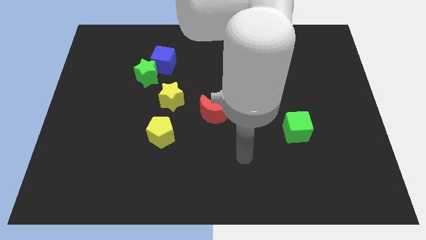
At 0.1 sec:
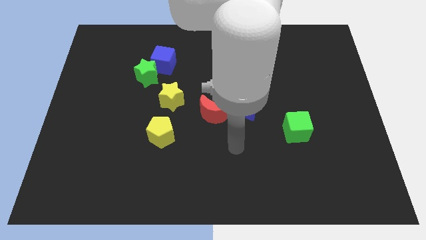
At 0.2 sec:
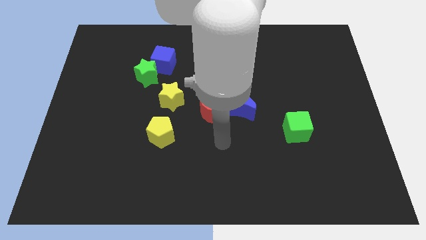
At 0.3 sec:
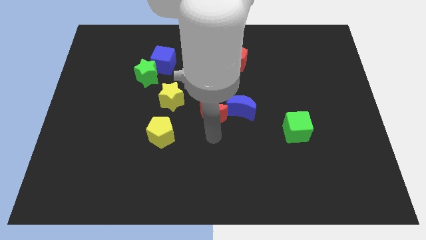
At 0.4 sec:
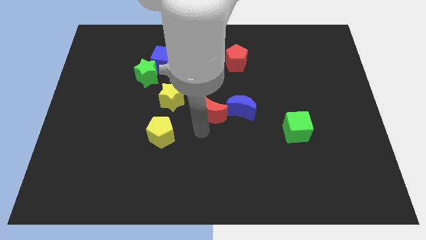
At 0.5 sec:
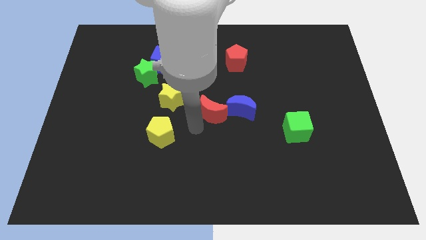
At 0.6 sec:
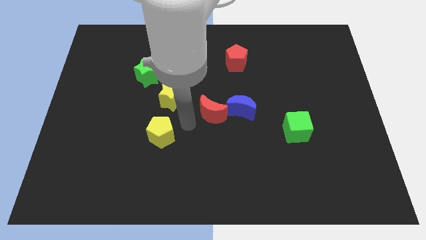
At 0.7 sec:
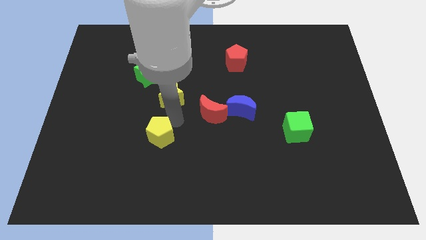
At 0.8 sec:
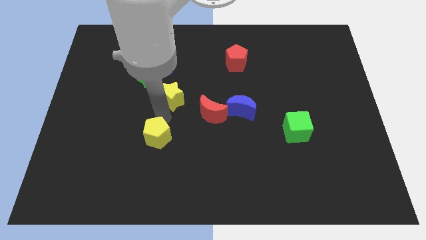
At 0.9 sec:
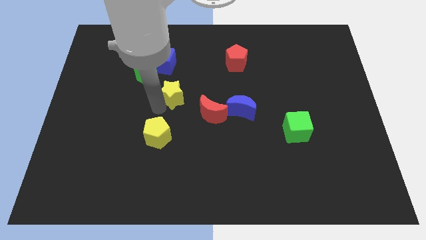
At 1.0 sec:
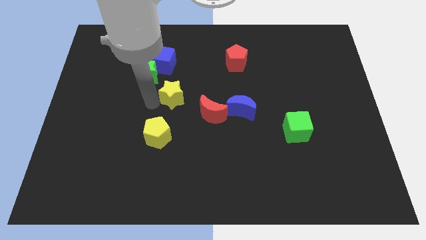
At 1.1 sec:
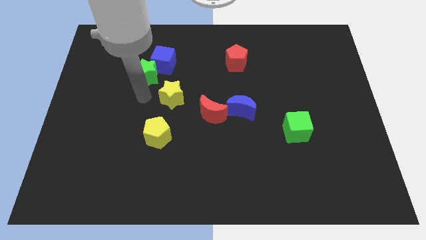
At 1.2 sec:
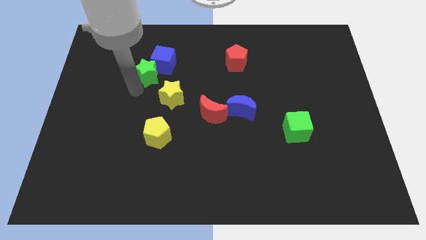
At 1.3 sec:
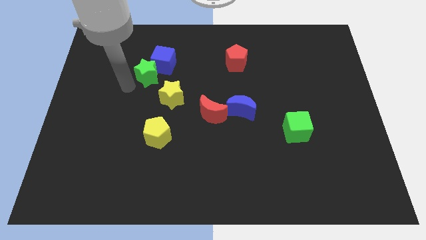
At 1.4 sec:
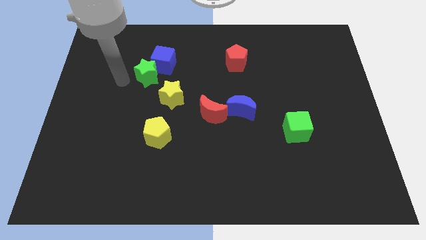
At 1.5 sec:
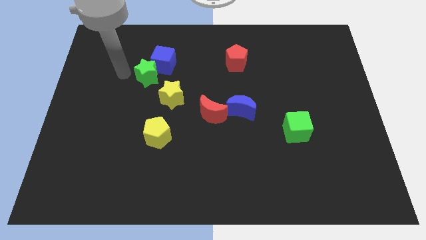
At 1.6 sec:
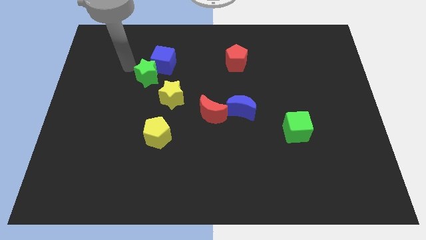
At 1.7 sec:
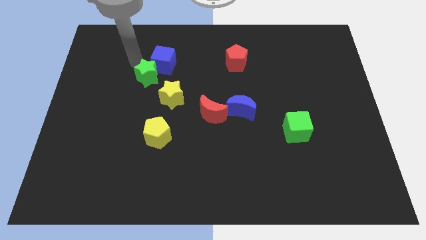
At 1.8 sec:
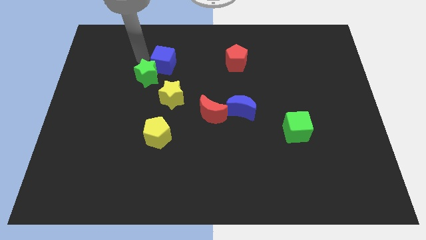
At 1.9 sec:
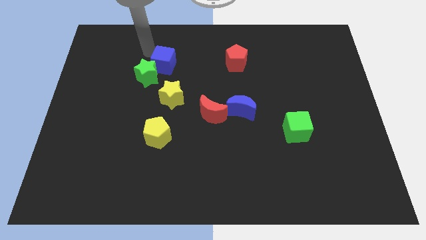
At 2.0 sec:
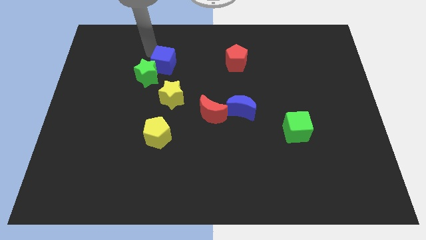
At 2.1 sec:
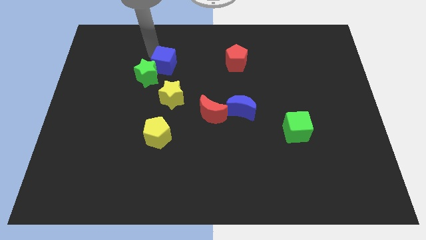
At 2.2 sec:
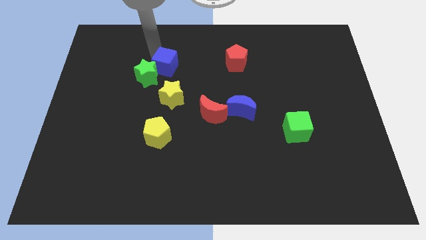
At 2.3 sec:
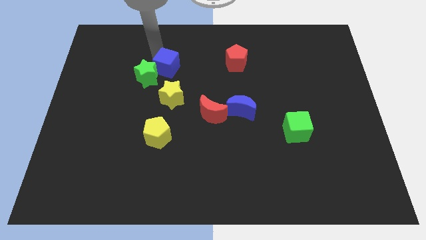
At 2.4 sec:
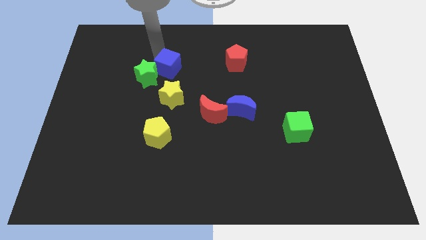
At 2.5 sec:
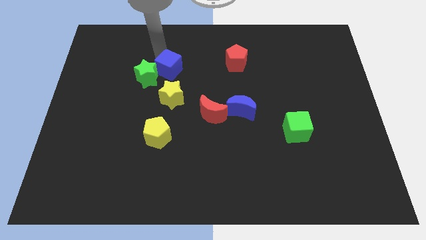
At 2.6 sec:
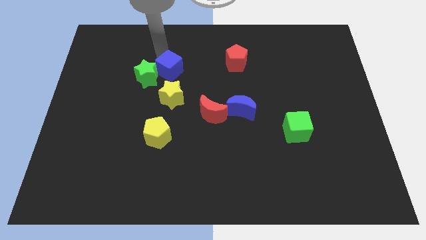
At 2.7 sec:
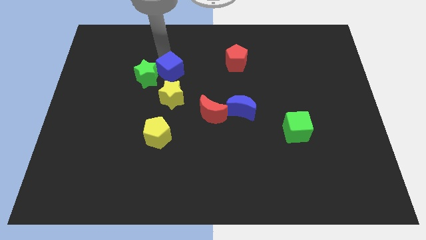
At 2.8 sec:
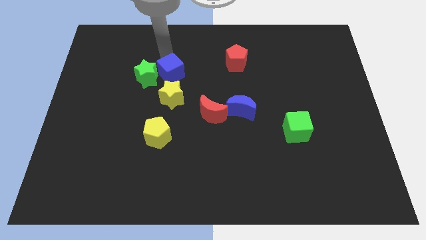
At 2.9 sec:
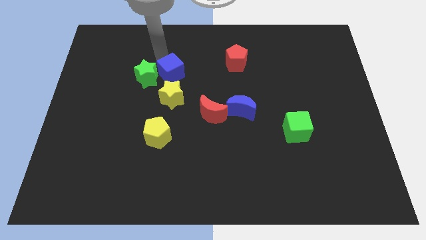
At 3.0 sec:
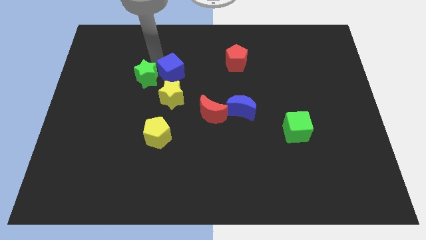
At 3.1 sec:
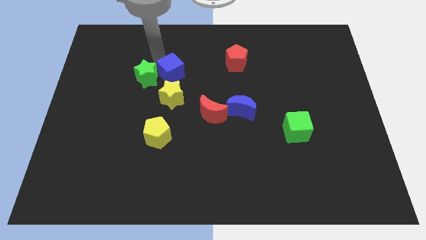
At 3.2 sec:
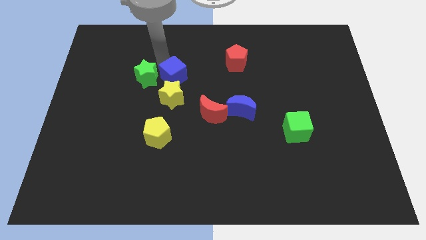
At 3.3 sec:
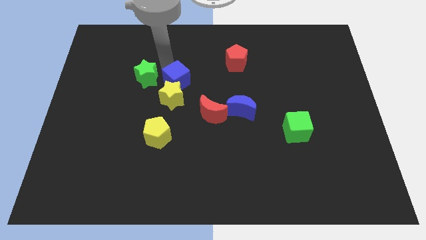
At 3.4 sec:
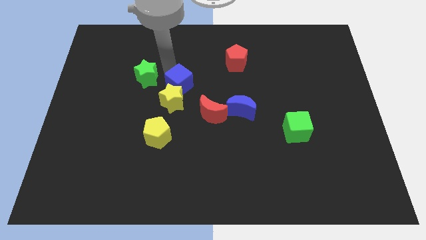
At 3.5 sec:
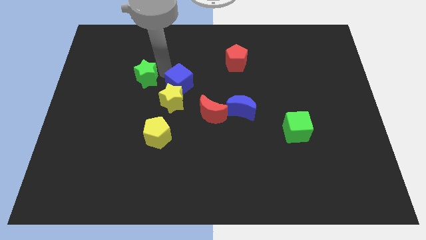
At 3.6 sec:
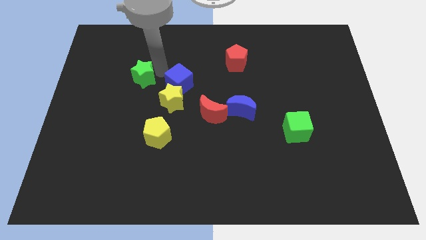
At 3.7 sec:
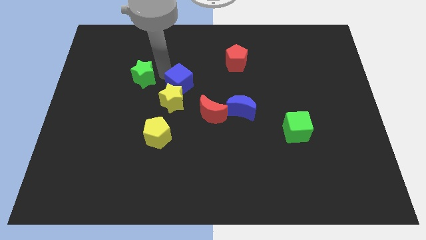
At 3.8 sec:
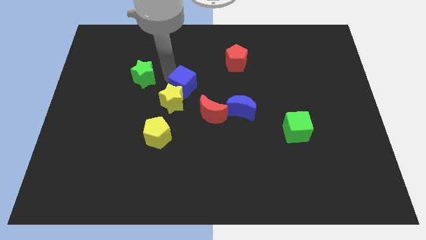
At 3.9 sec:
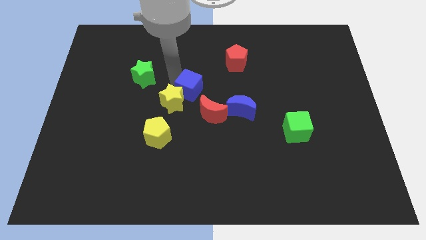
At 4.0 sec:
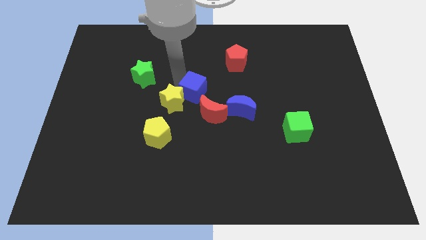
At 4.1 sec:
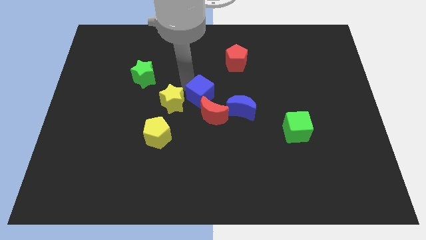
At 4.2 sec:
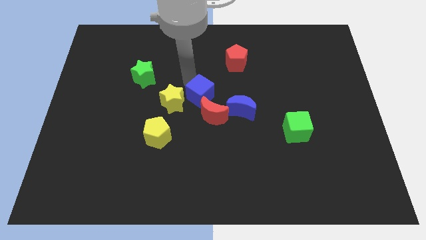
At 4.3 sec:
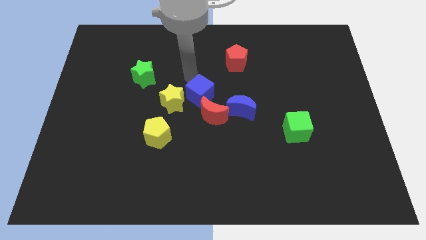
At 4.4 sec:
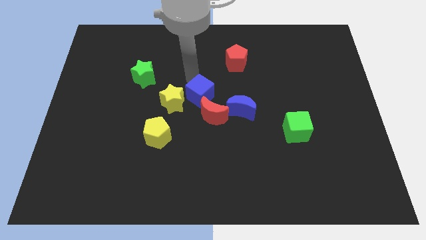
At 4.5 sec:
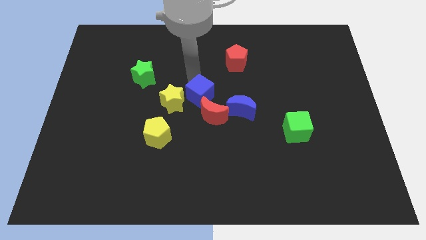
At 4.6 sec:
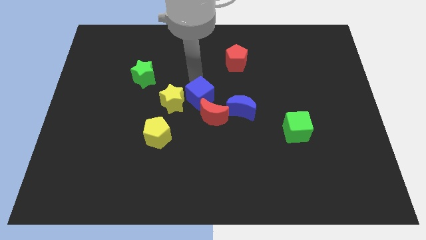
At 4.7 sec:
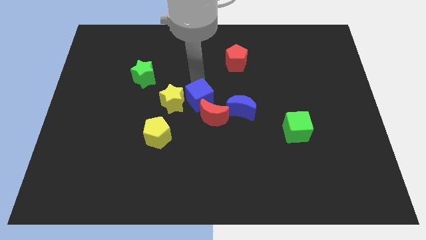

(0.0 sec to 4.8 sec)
put the blue cube next to the red moon

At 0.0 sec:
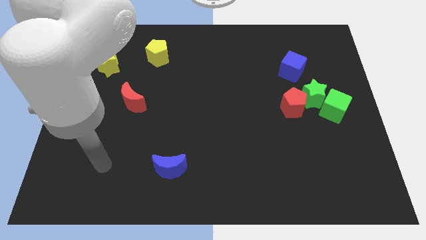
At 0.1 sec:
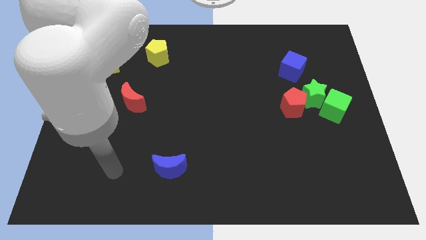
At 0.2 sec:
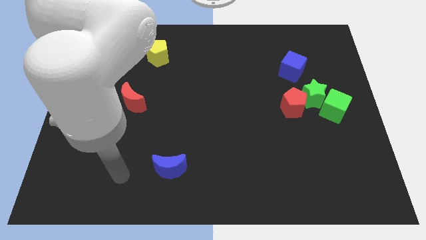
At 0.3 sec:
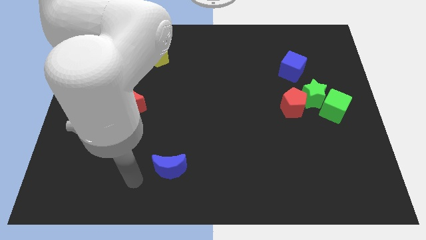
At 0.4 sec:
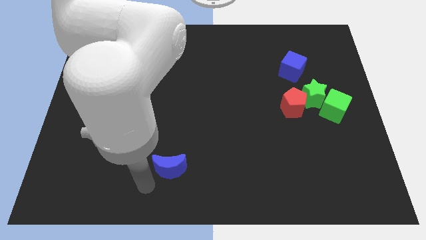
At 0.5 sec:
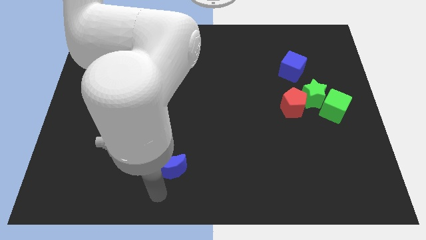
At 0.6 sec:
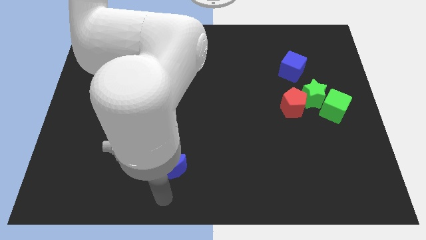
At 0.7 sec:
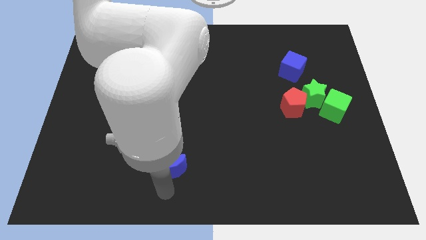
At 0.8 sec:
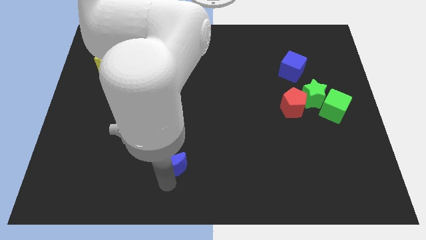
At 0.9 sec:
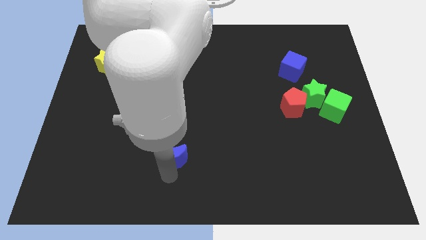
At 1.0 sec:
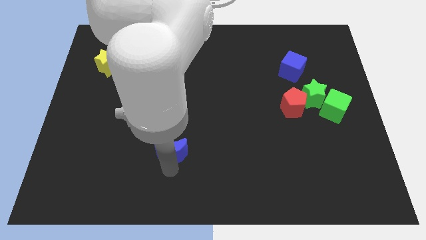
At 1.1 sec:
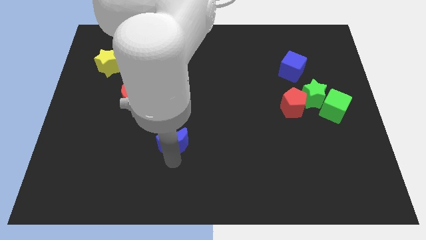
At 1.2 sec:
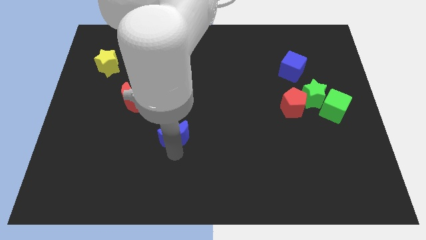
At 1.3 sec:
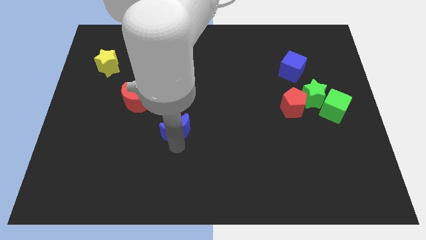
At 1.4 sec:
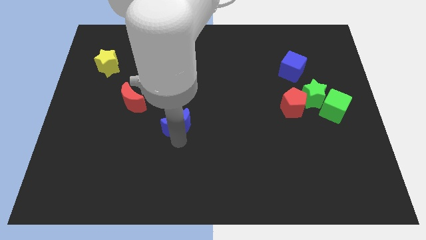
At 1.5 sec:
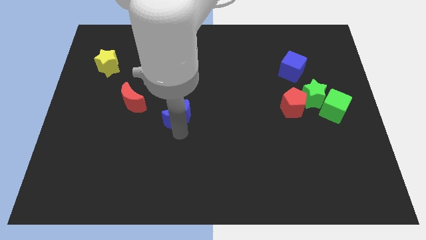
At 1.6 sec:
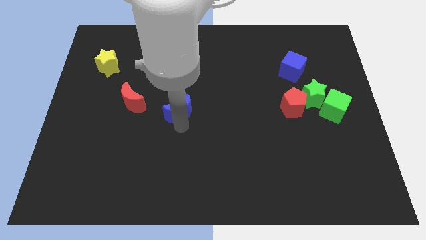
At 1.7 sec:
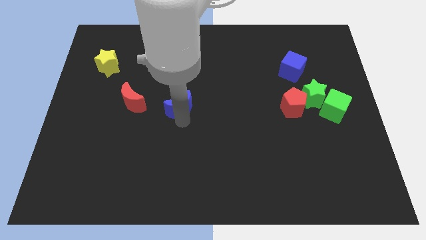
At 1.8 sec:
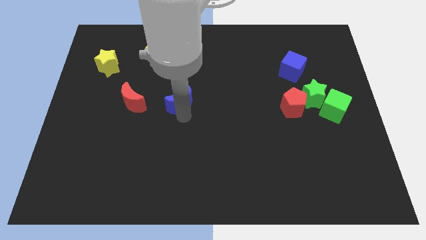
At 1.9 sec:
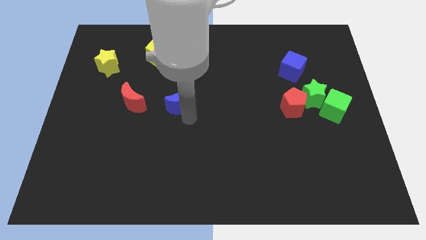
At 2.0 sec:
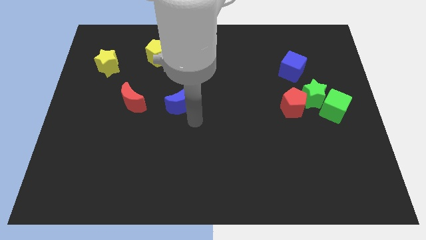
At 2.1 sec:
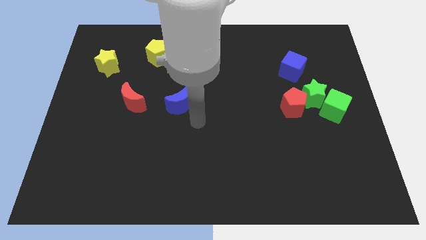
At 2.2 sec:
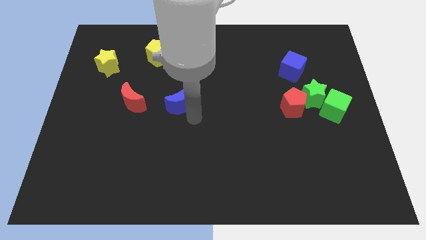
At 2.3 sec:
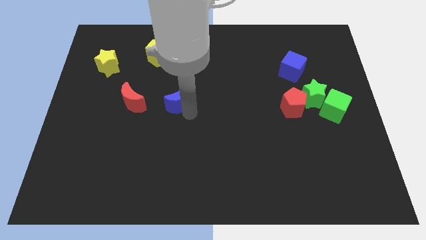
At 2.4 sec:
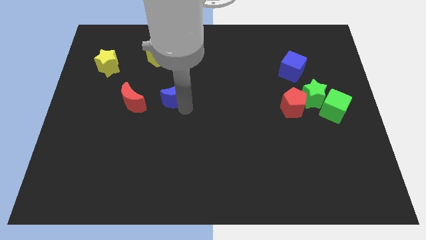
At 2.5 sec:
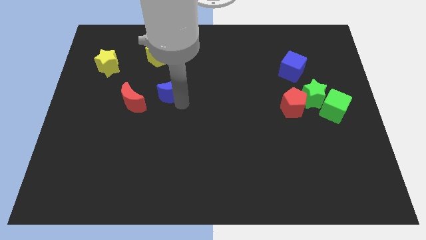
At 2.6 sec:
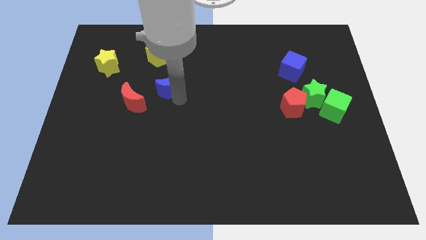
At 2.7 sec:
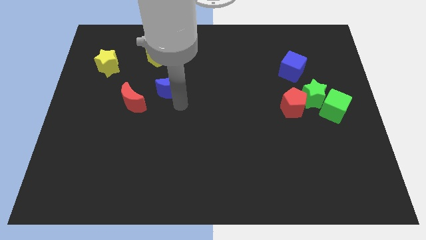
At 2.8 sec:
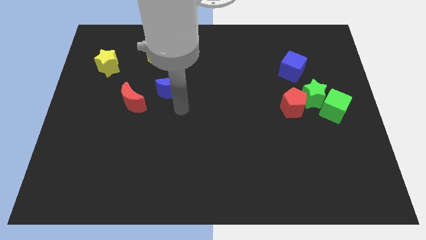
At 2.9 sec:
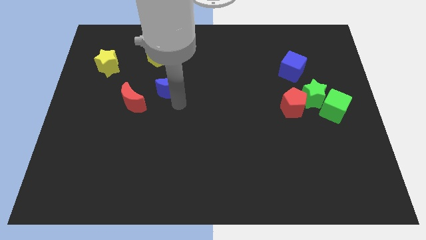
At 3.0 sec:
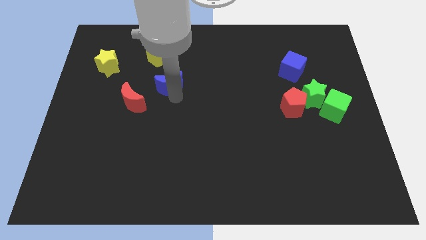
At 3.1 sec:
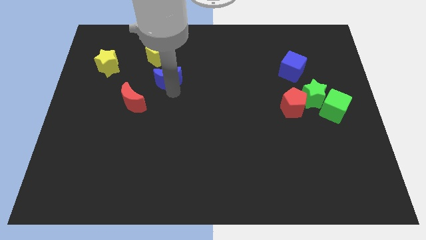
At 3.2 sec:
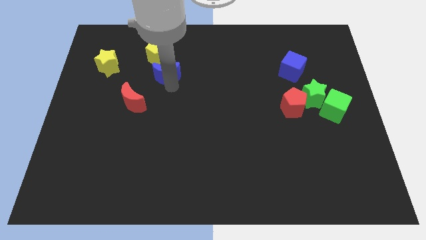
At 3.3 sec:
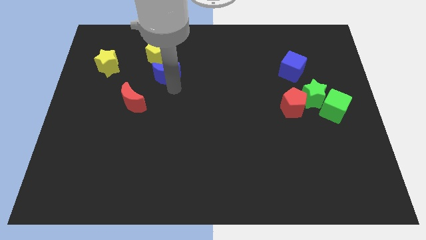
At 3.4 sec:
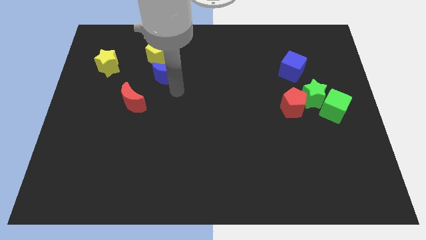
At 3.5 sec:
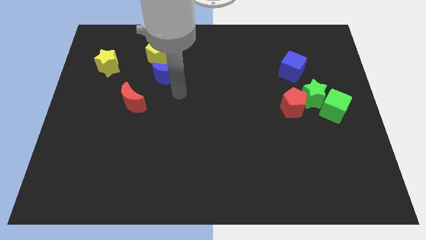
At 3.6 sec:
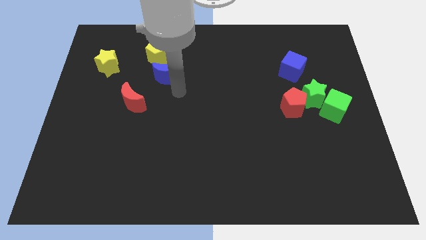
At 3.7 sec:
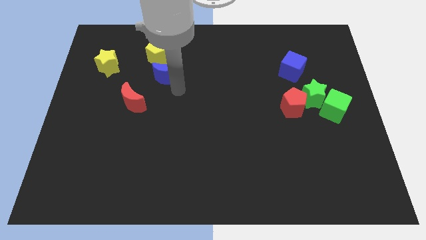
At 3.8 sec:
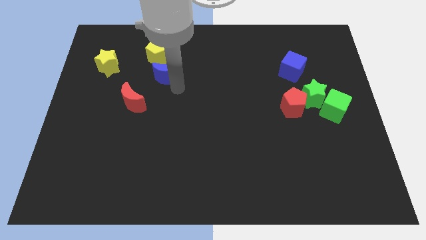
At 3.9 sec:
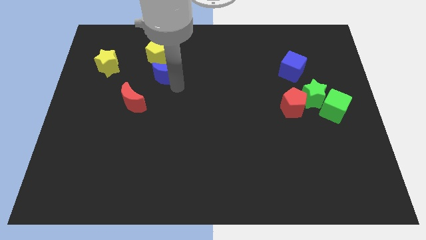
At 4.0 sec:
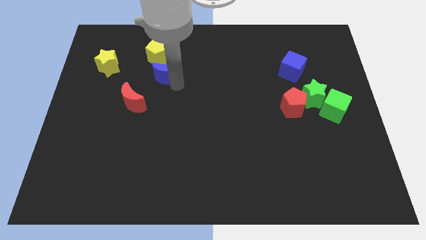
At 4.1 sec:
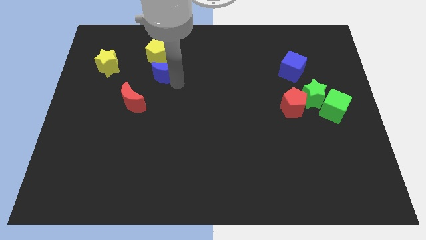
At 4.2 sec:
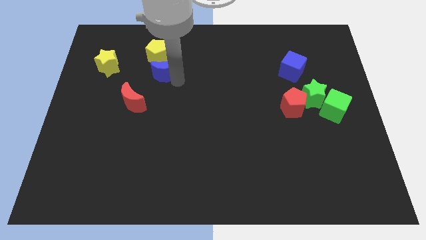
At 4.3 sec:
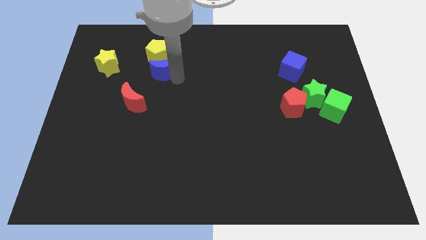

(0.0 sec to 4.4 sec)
push the blue moon close to the yellow pentagon
